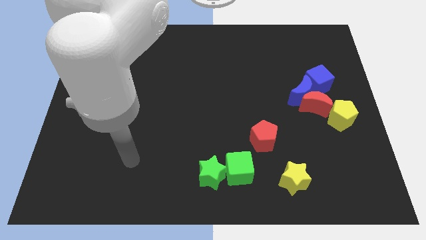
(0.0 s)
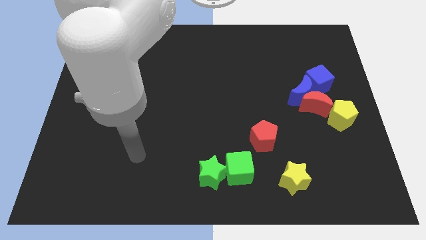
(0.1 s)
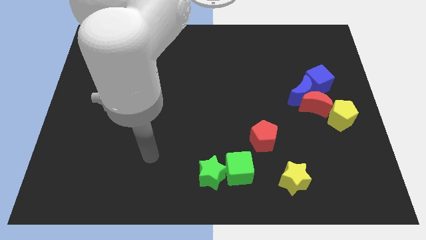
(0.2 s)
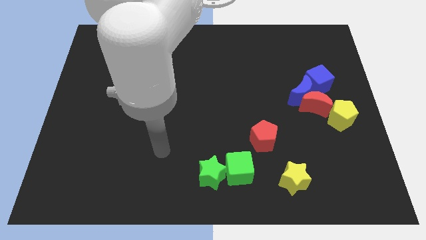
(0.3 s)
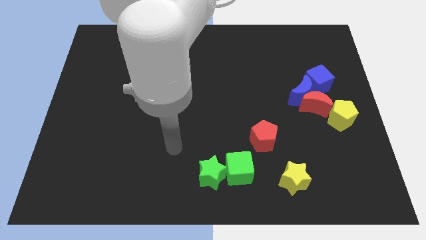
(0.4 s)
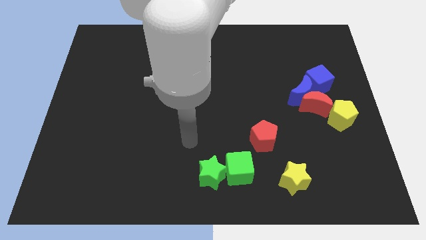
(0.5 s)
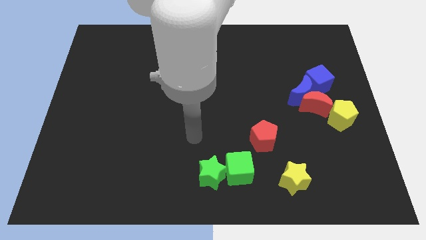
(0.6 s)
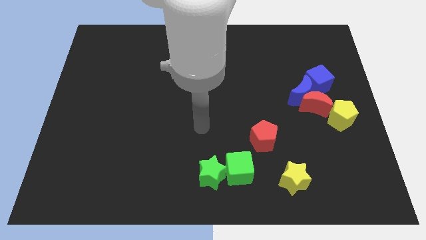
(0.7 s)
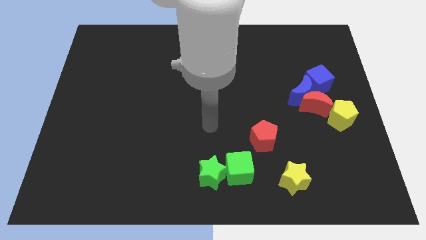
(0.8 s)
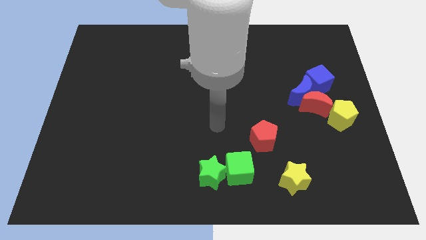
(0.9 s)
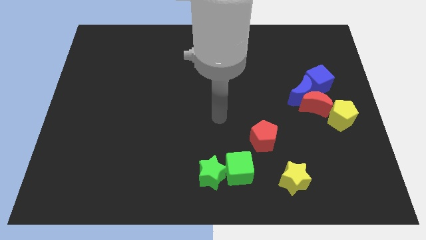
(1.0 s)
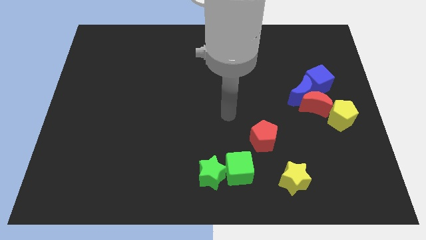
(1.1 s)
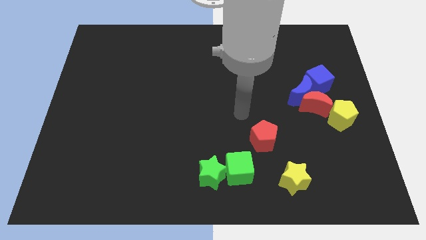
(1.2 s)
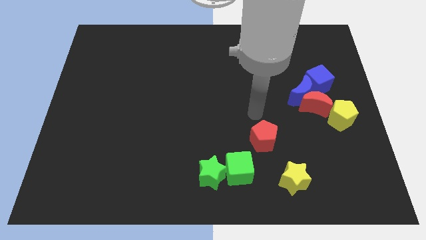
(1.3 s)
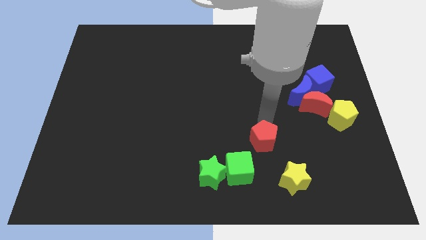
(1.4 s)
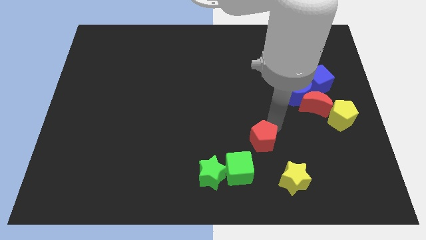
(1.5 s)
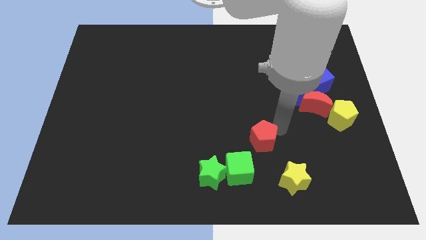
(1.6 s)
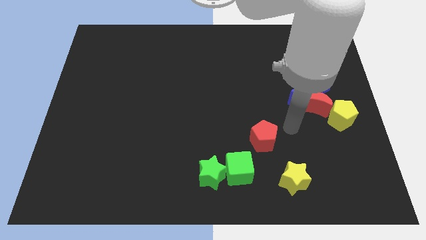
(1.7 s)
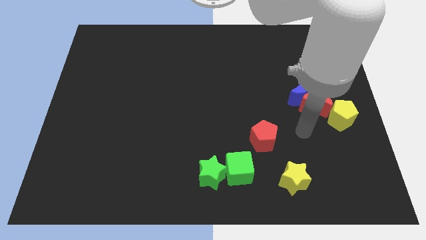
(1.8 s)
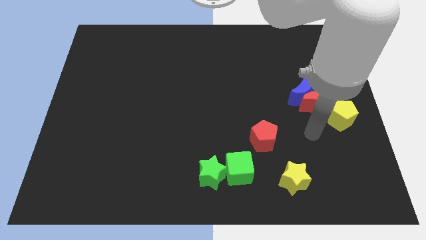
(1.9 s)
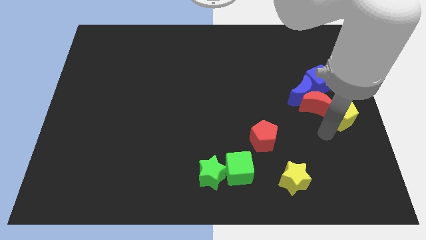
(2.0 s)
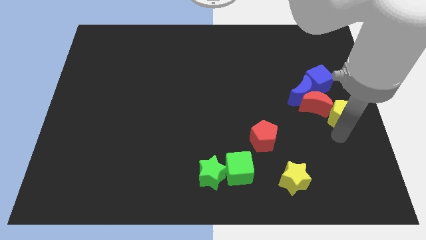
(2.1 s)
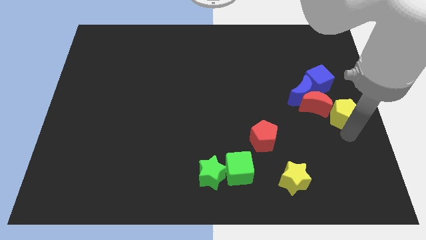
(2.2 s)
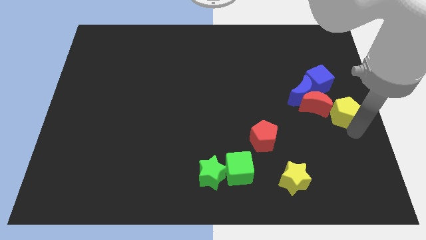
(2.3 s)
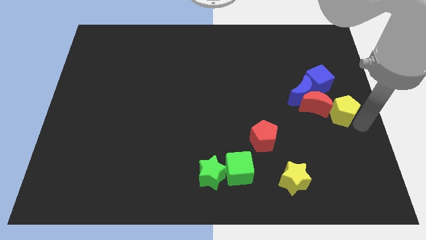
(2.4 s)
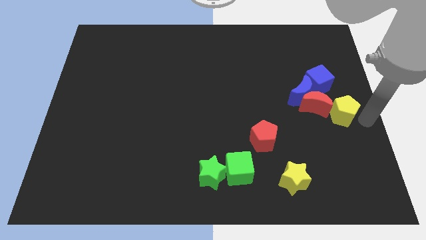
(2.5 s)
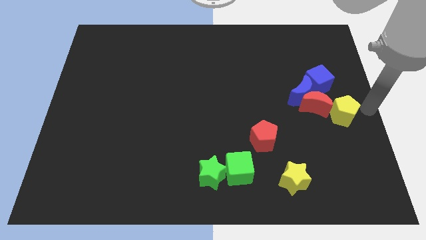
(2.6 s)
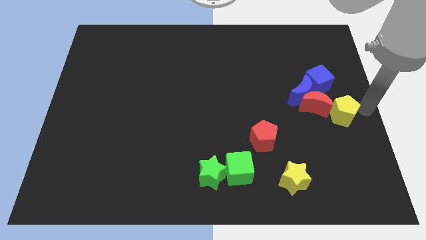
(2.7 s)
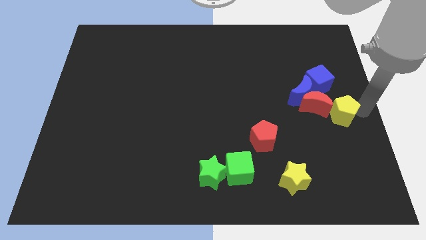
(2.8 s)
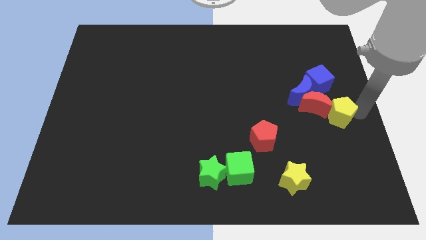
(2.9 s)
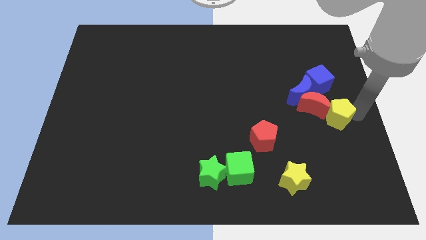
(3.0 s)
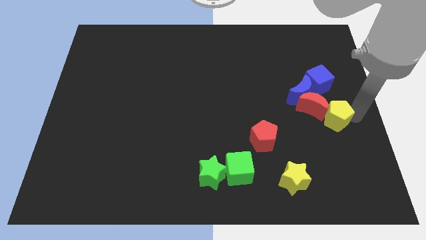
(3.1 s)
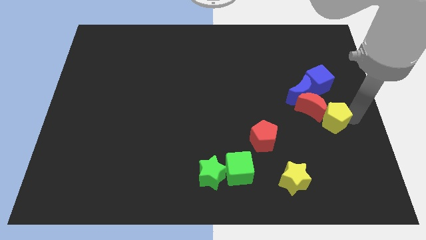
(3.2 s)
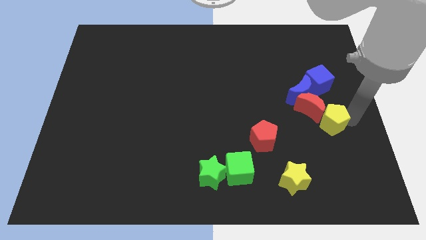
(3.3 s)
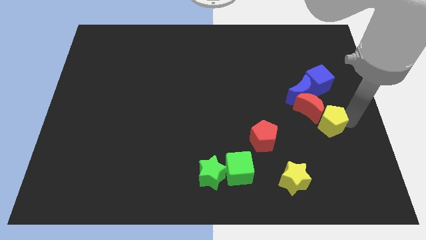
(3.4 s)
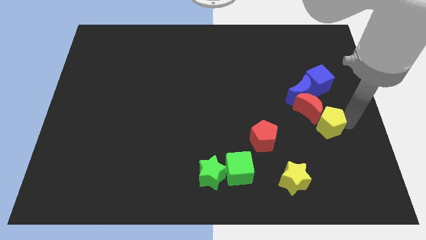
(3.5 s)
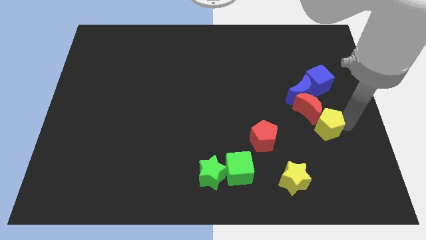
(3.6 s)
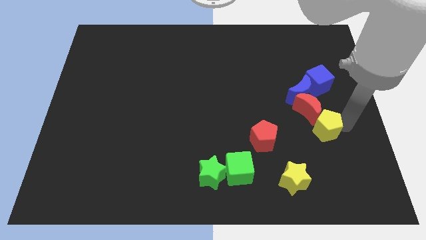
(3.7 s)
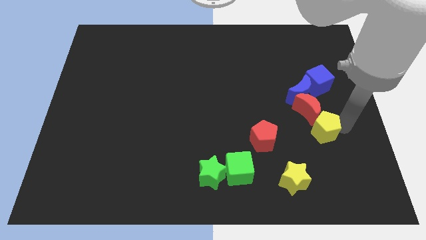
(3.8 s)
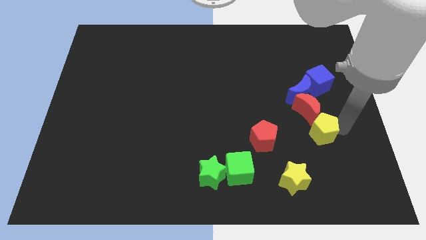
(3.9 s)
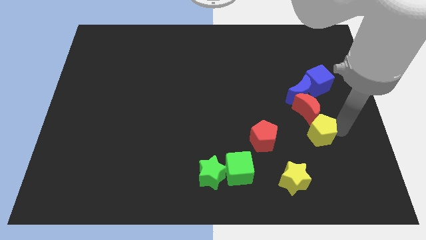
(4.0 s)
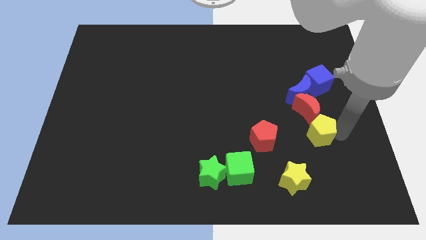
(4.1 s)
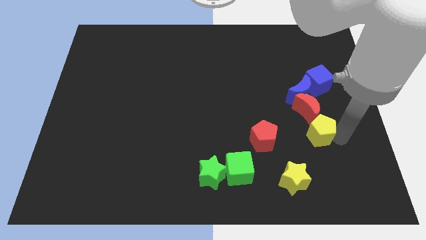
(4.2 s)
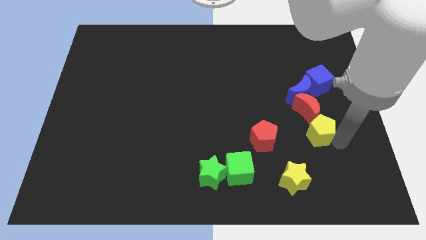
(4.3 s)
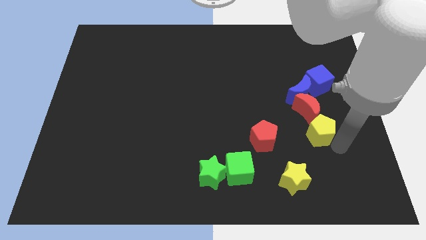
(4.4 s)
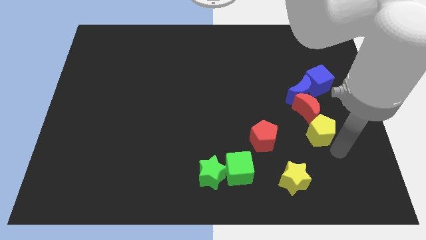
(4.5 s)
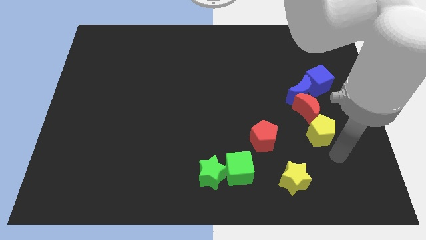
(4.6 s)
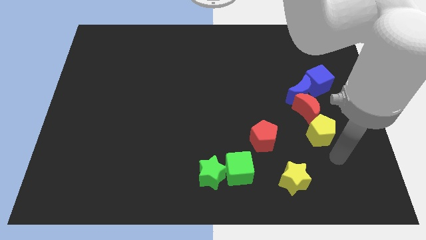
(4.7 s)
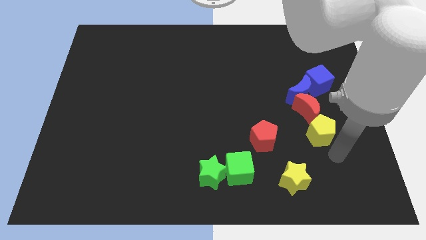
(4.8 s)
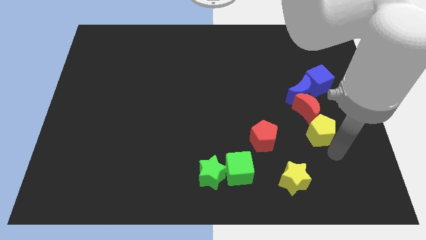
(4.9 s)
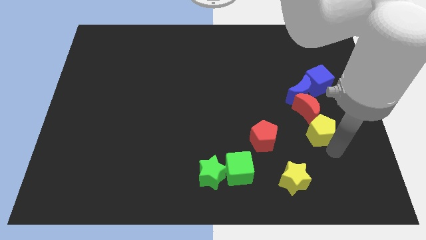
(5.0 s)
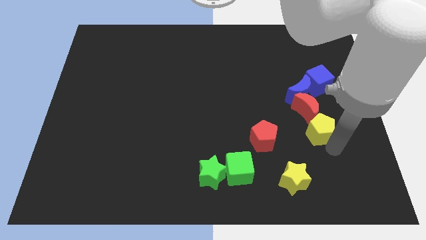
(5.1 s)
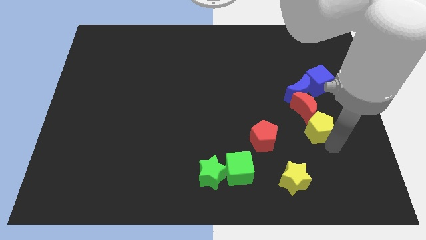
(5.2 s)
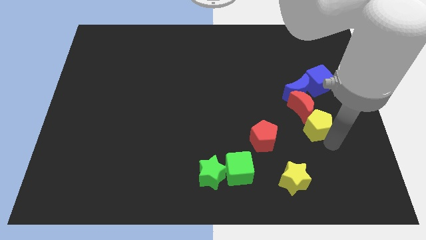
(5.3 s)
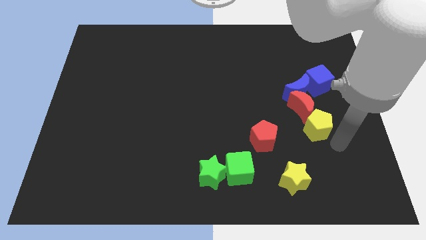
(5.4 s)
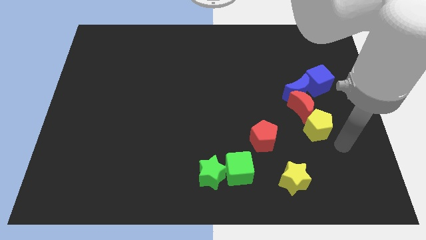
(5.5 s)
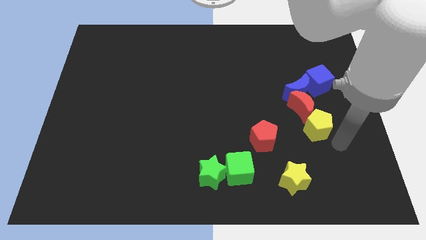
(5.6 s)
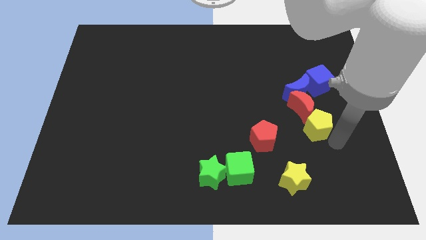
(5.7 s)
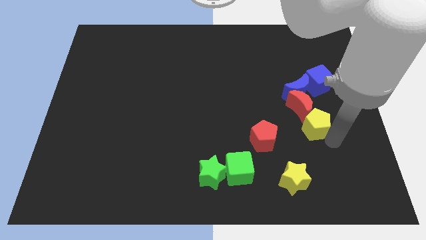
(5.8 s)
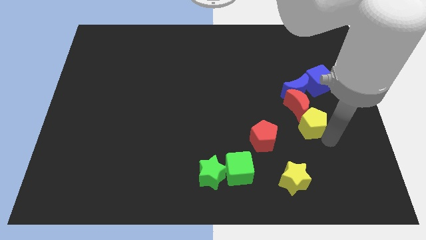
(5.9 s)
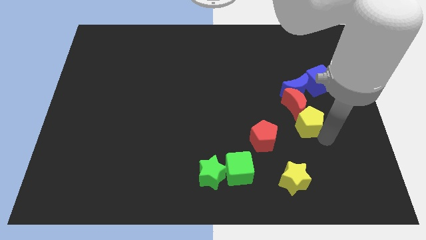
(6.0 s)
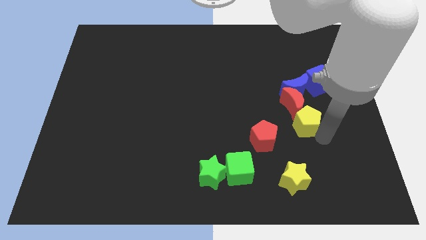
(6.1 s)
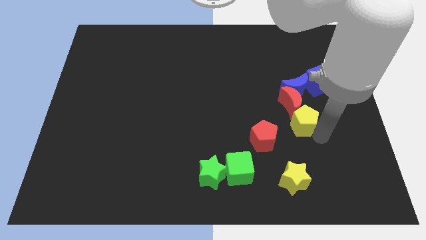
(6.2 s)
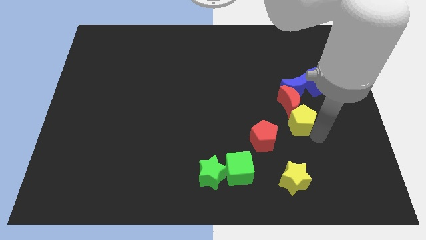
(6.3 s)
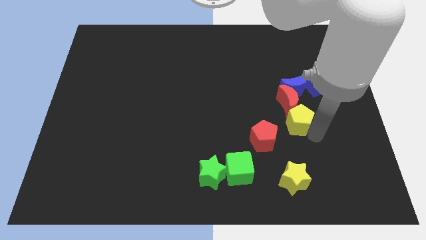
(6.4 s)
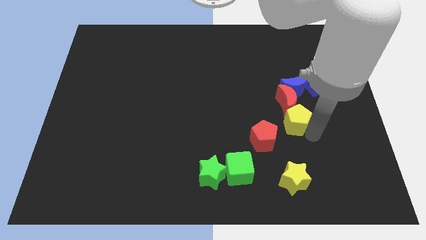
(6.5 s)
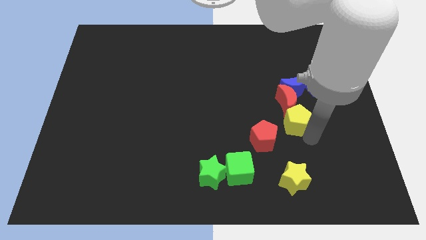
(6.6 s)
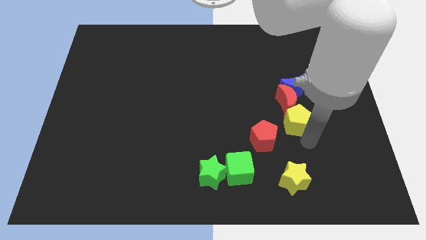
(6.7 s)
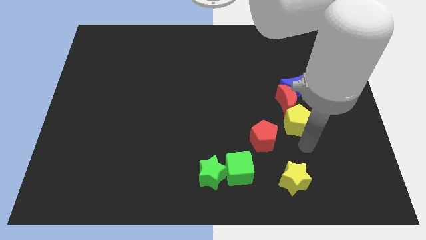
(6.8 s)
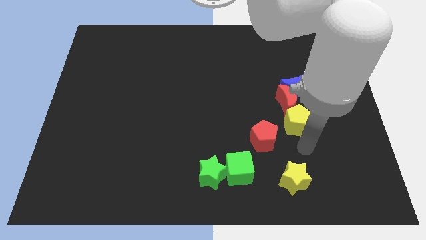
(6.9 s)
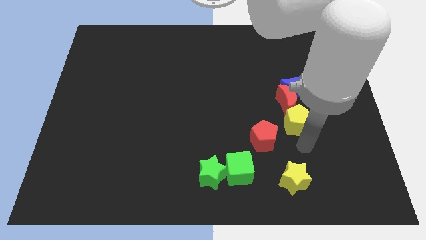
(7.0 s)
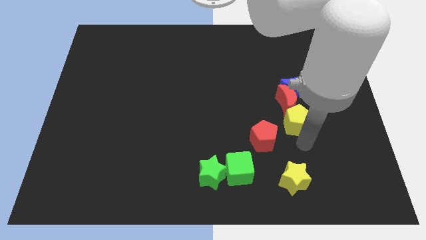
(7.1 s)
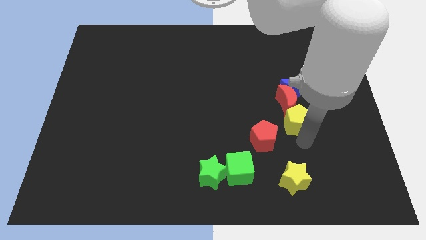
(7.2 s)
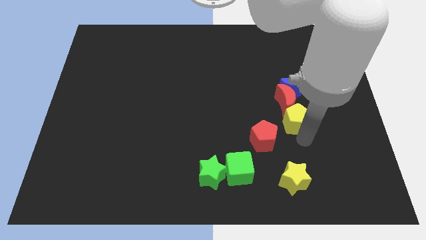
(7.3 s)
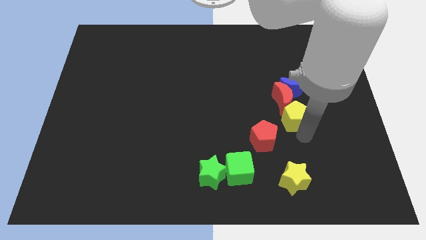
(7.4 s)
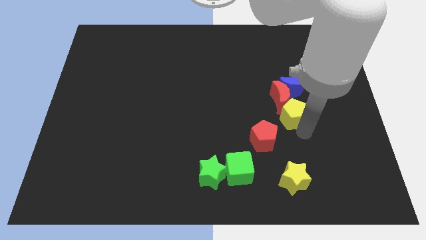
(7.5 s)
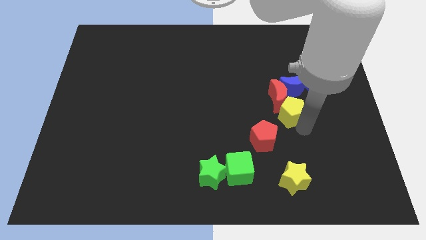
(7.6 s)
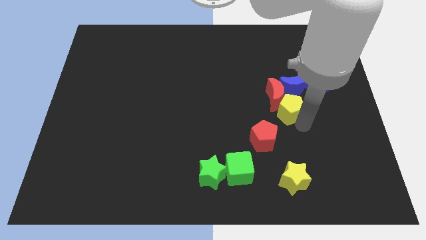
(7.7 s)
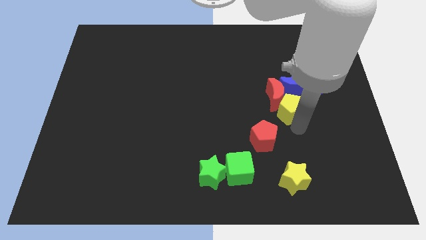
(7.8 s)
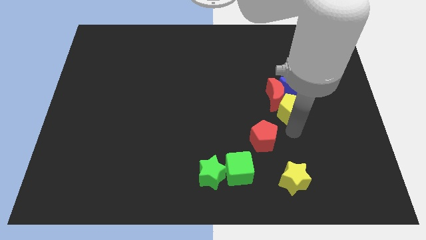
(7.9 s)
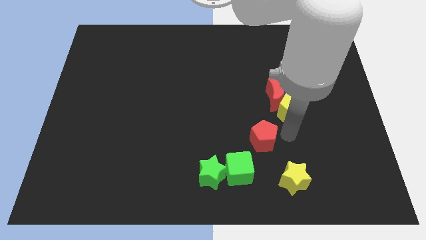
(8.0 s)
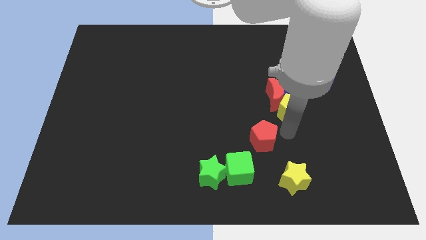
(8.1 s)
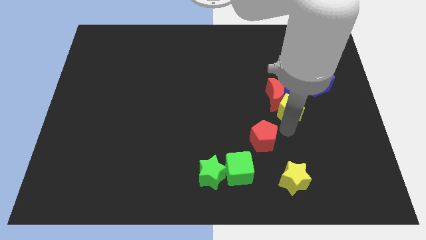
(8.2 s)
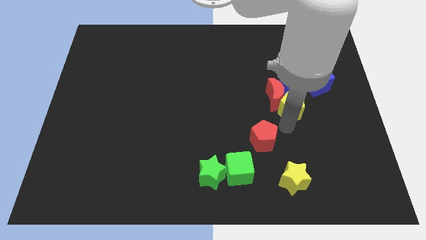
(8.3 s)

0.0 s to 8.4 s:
move the yellow pentagon next to the blue moon
